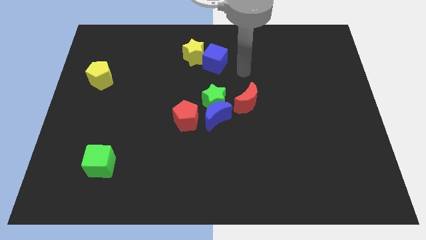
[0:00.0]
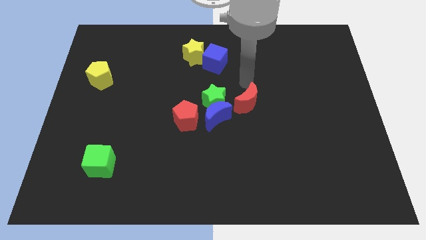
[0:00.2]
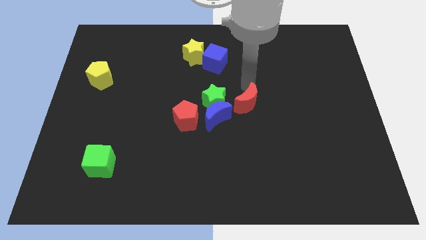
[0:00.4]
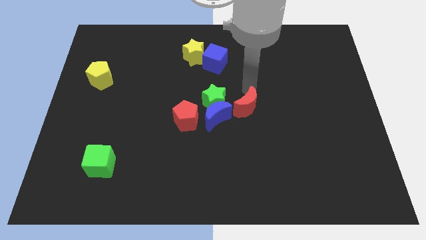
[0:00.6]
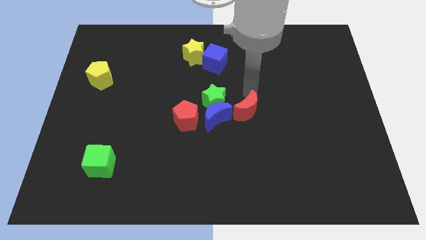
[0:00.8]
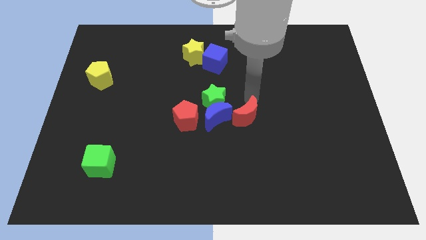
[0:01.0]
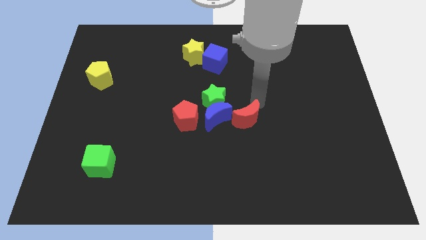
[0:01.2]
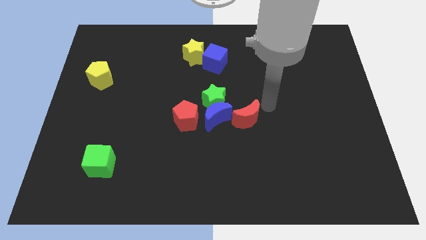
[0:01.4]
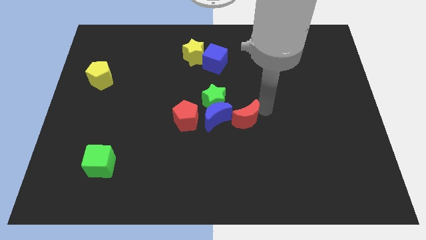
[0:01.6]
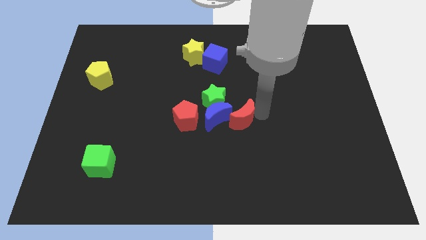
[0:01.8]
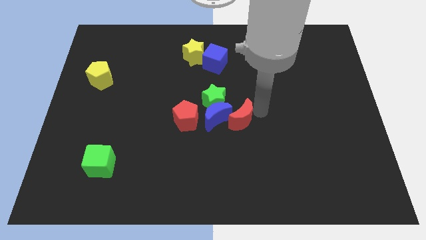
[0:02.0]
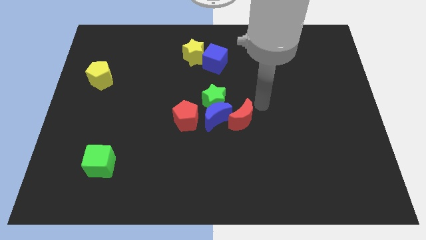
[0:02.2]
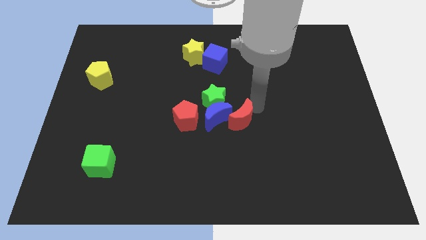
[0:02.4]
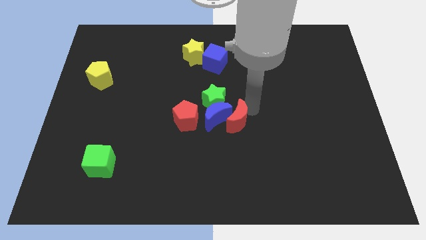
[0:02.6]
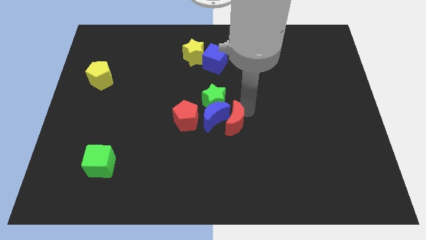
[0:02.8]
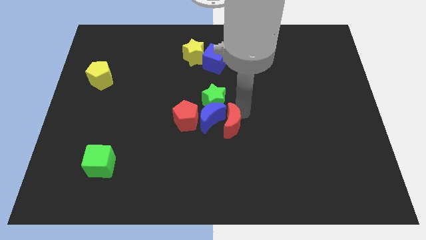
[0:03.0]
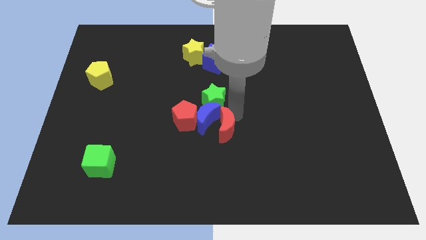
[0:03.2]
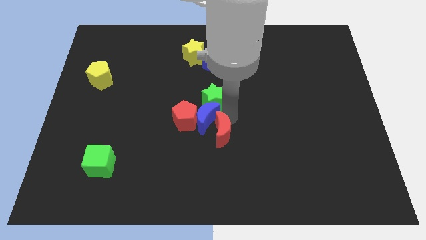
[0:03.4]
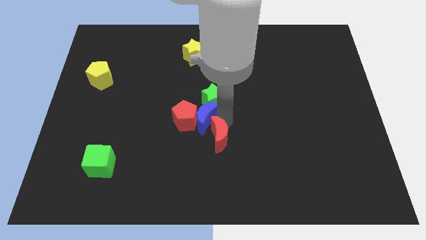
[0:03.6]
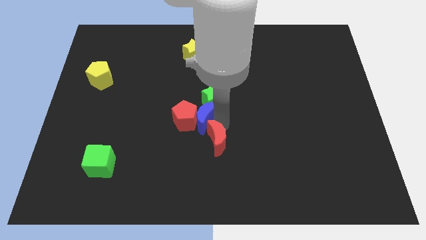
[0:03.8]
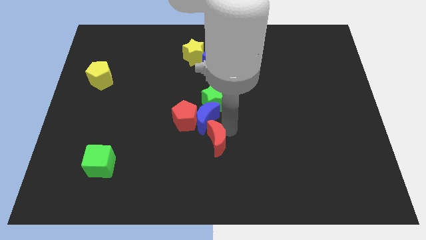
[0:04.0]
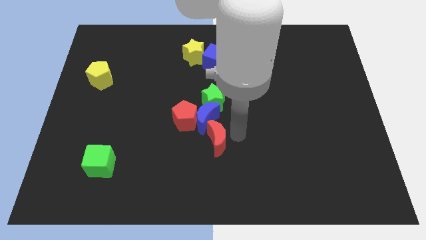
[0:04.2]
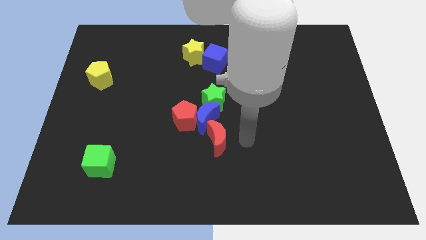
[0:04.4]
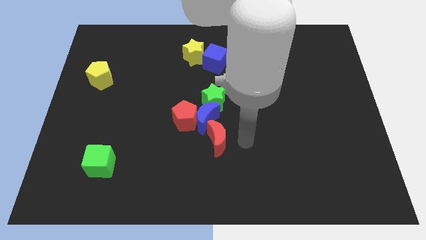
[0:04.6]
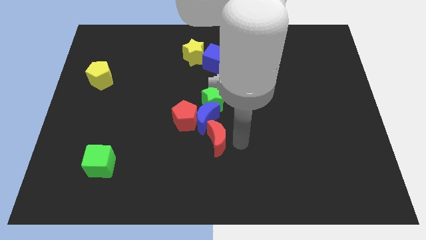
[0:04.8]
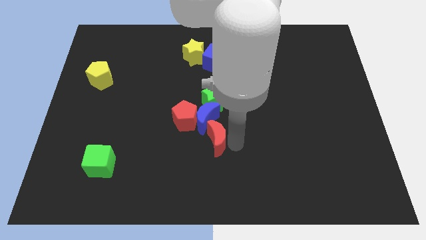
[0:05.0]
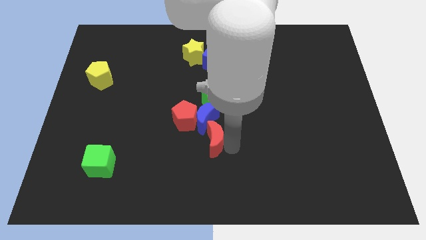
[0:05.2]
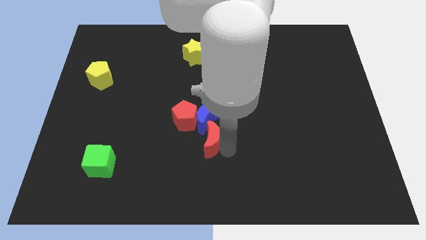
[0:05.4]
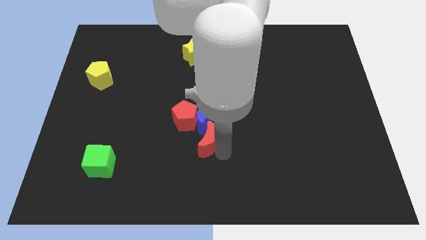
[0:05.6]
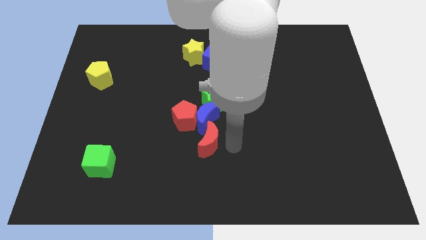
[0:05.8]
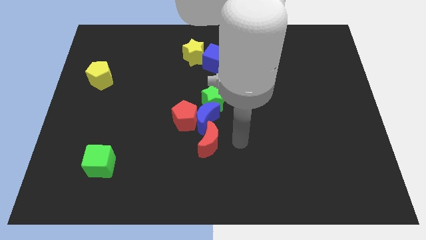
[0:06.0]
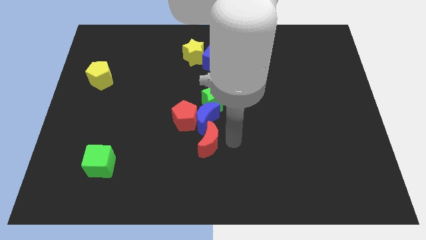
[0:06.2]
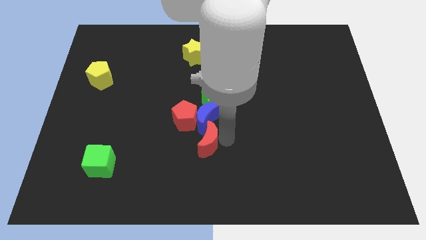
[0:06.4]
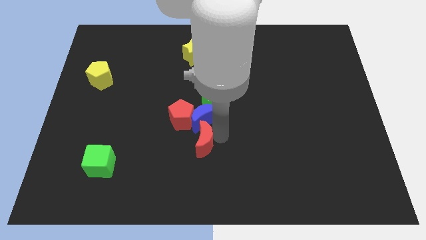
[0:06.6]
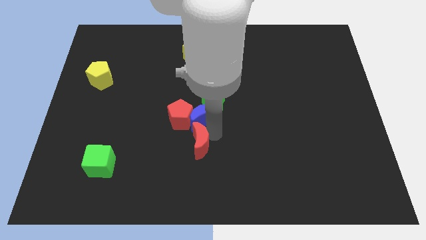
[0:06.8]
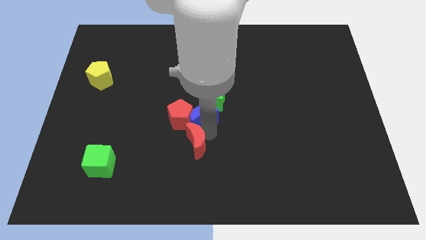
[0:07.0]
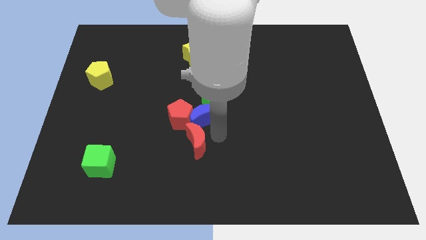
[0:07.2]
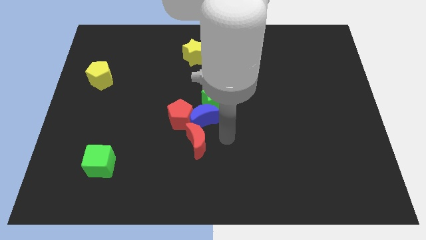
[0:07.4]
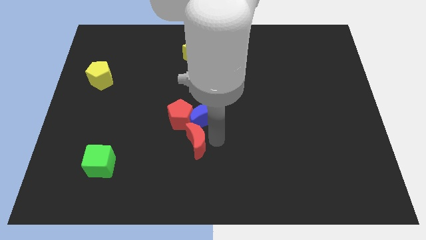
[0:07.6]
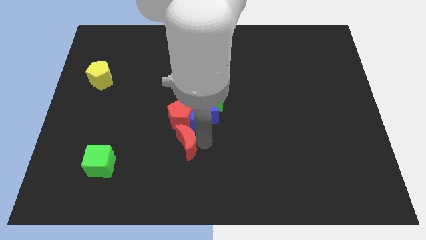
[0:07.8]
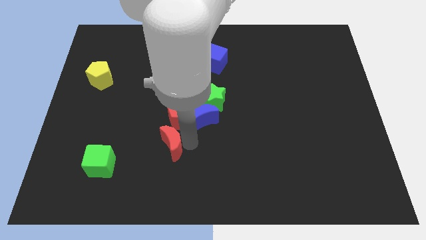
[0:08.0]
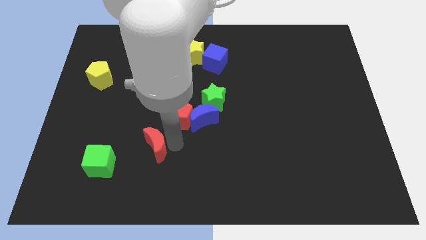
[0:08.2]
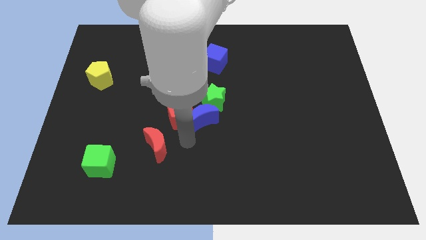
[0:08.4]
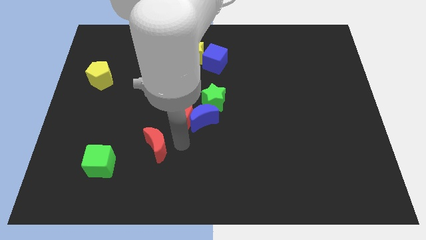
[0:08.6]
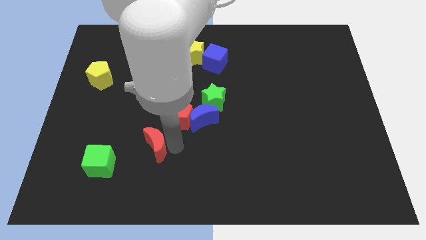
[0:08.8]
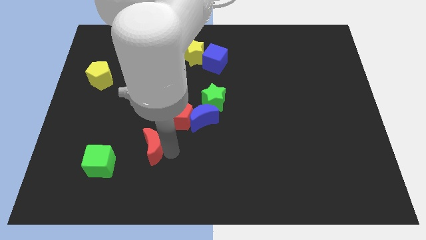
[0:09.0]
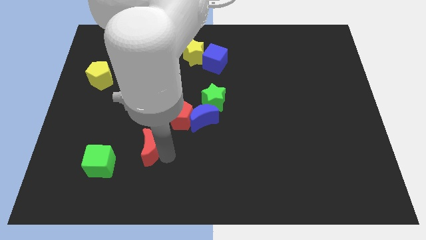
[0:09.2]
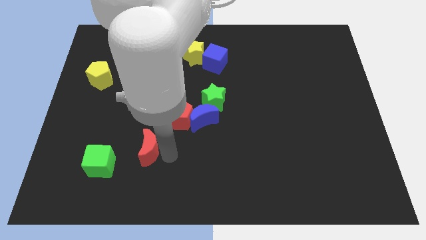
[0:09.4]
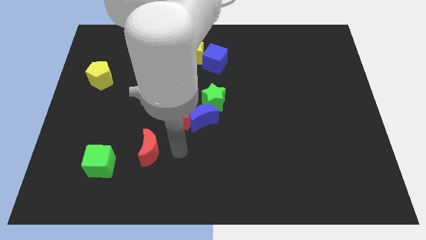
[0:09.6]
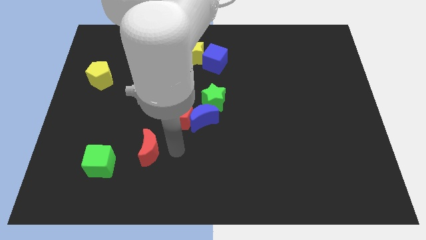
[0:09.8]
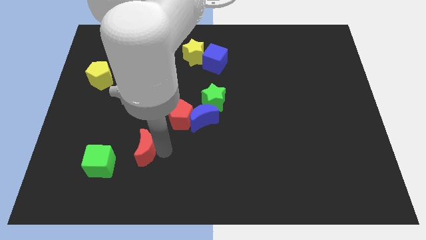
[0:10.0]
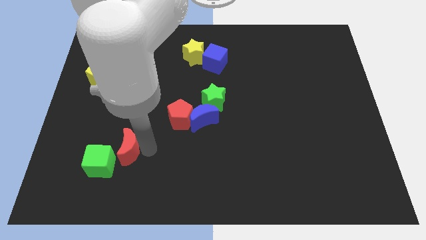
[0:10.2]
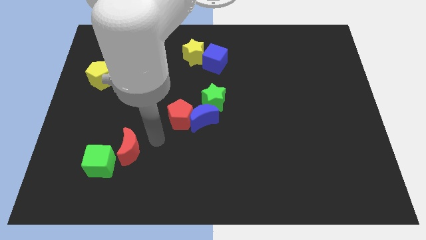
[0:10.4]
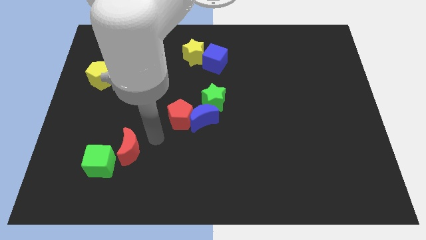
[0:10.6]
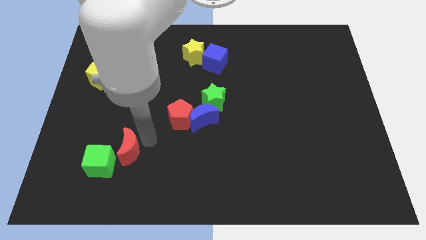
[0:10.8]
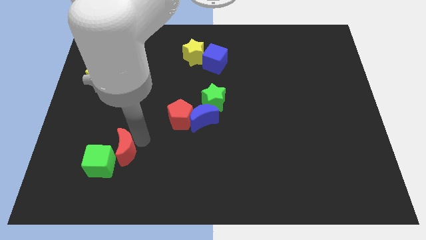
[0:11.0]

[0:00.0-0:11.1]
move the red moon close to the green cube

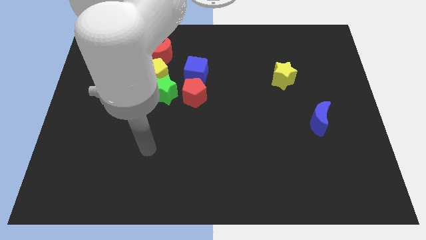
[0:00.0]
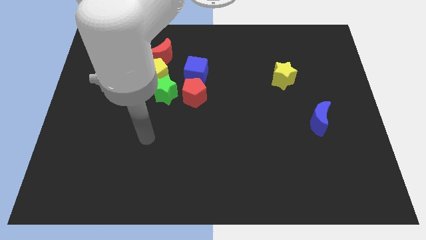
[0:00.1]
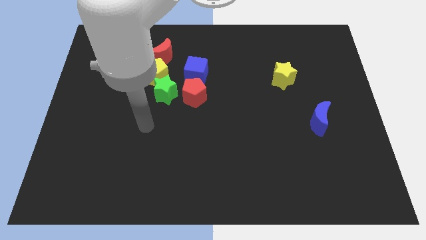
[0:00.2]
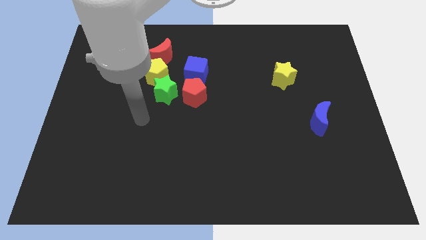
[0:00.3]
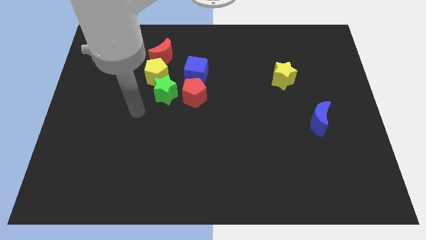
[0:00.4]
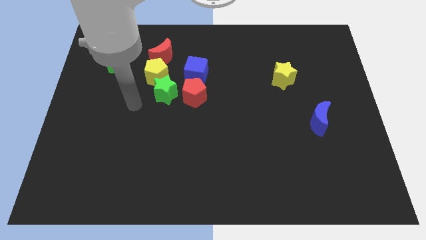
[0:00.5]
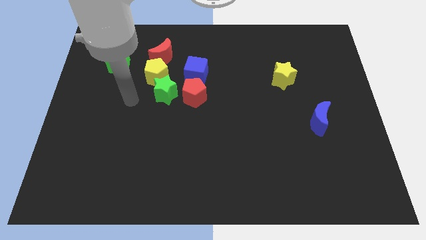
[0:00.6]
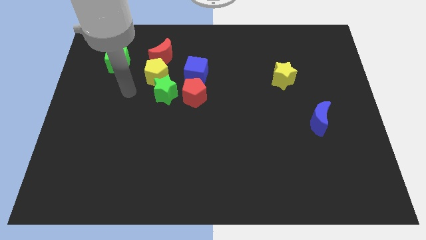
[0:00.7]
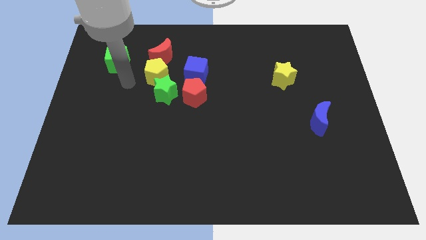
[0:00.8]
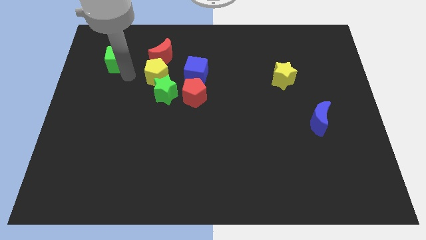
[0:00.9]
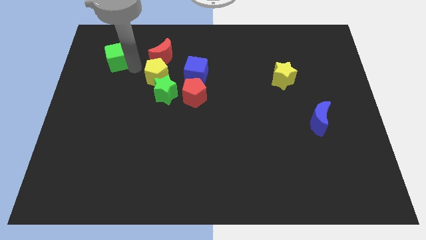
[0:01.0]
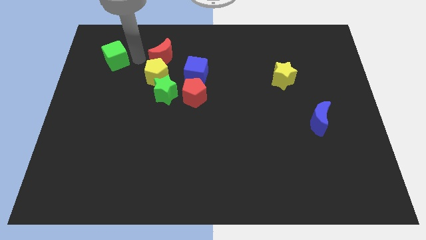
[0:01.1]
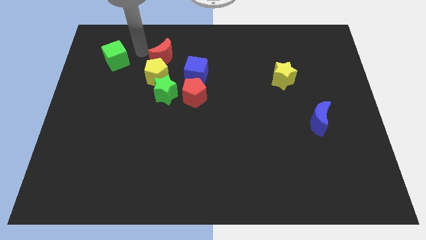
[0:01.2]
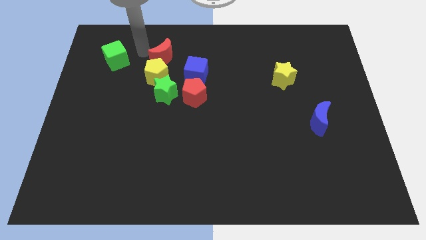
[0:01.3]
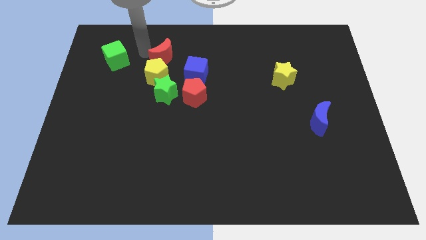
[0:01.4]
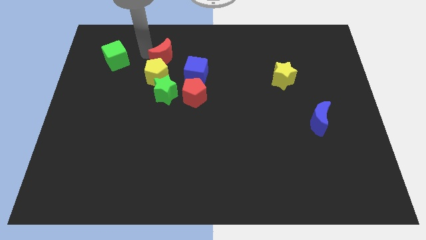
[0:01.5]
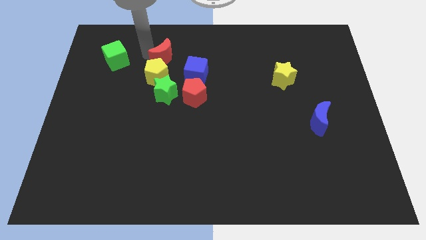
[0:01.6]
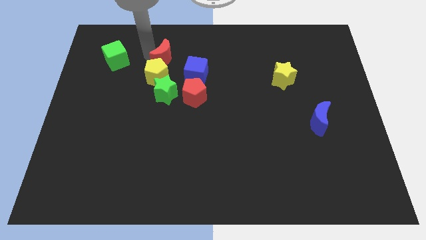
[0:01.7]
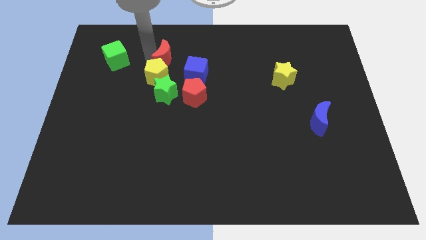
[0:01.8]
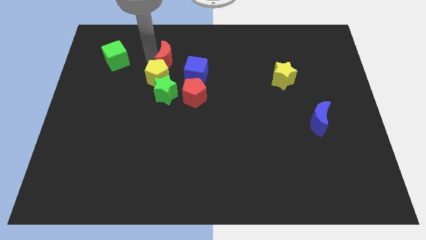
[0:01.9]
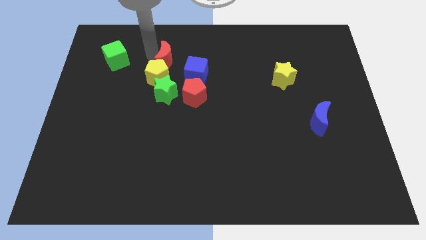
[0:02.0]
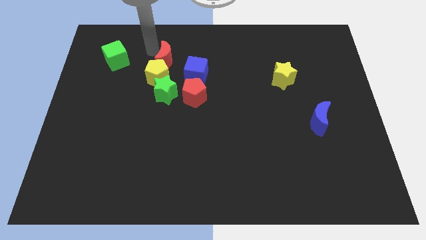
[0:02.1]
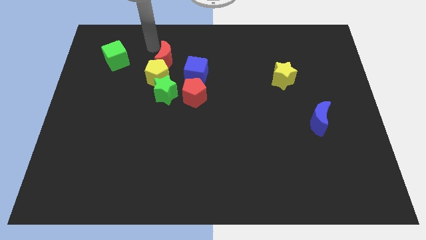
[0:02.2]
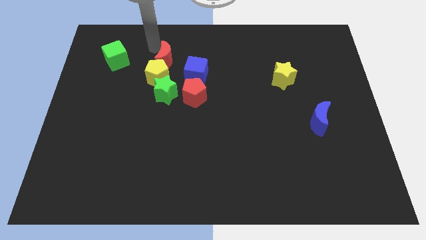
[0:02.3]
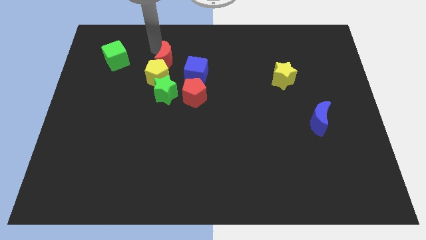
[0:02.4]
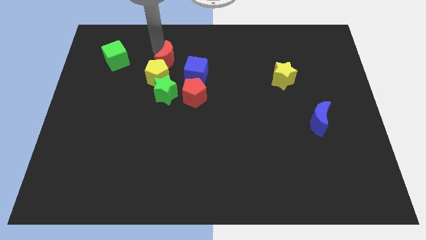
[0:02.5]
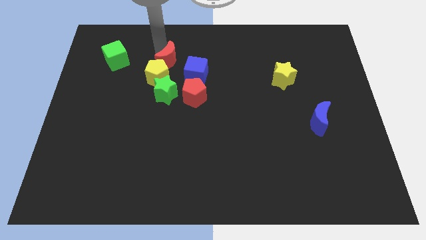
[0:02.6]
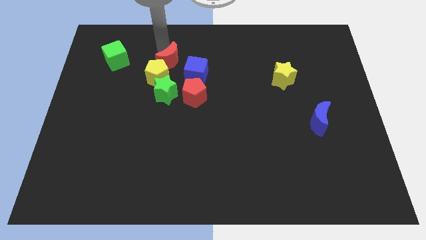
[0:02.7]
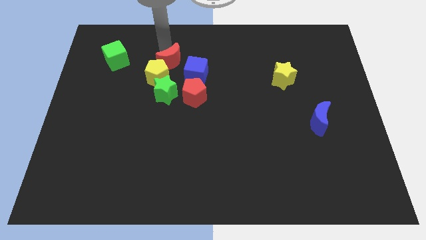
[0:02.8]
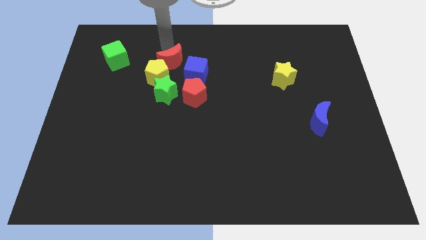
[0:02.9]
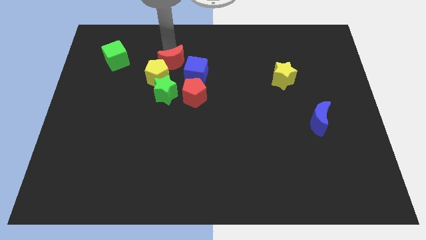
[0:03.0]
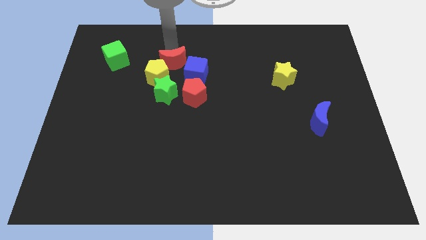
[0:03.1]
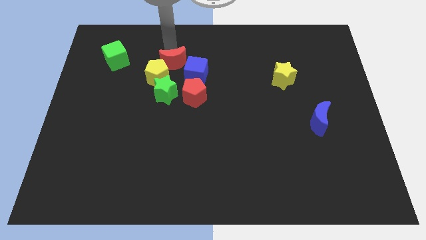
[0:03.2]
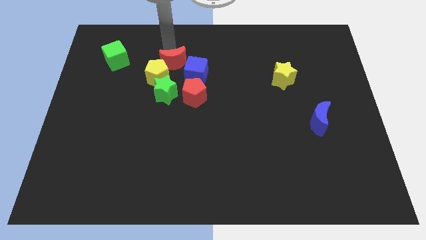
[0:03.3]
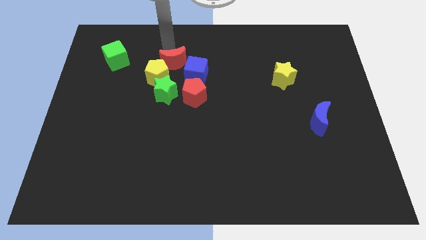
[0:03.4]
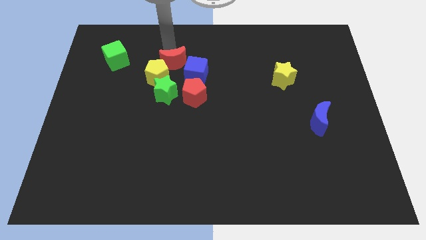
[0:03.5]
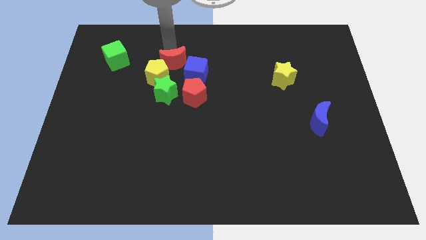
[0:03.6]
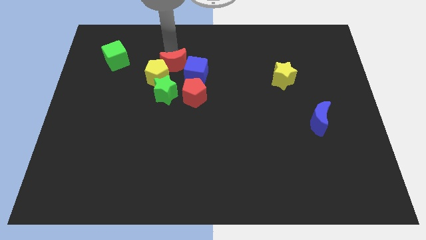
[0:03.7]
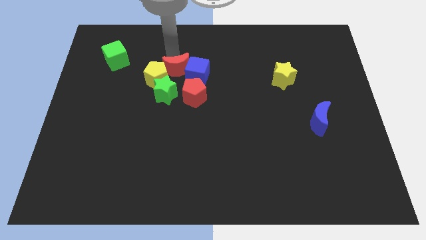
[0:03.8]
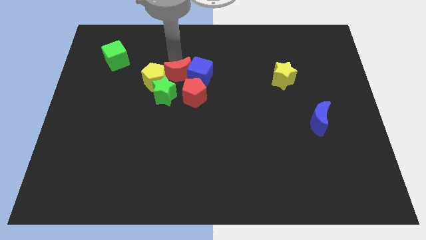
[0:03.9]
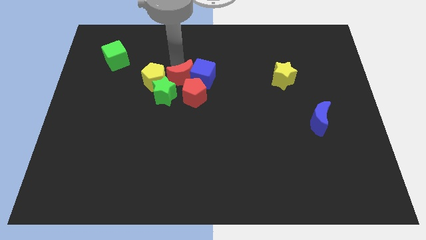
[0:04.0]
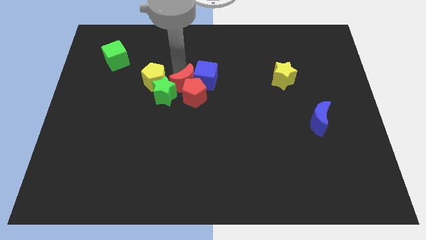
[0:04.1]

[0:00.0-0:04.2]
slide the red moon next to the red pentagon
